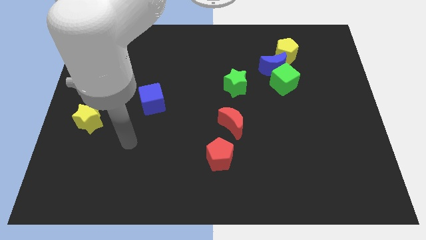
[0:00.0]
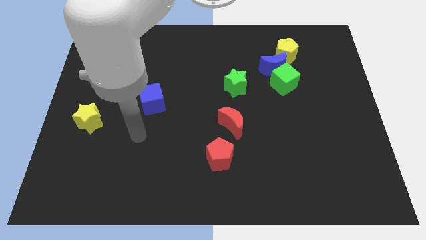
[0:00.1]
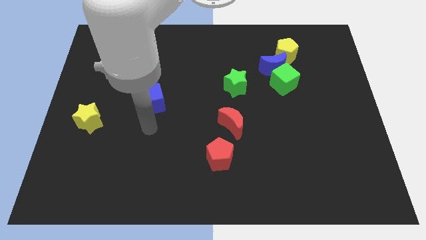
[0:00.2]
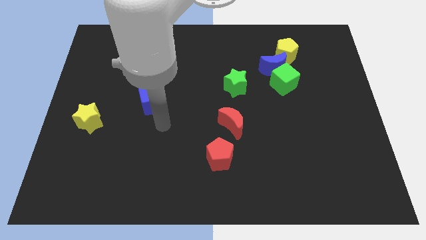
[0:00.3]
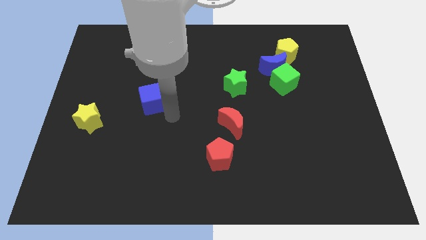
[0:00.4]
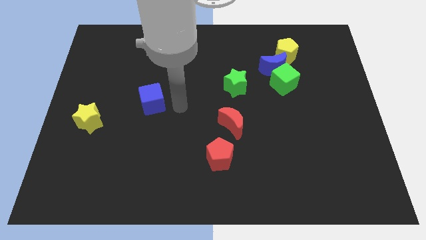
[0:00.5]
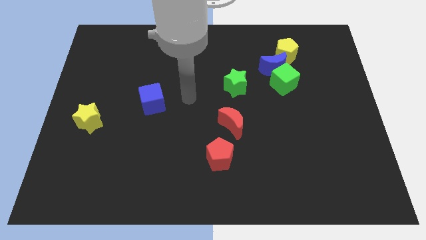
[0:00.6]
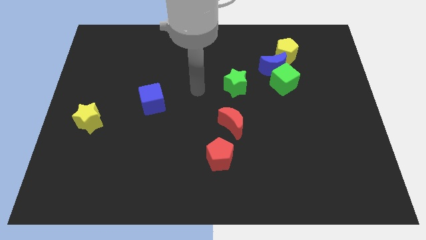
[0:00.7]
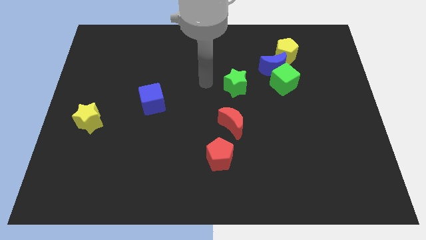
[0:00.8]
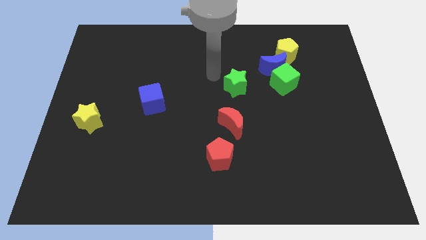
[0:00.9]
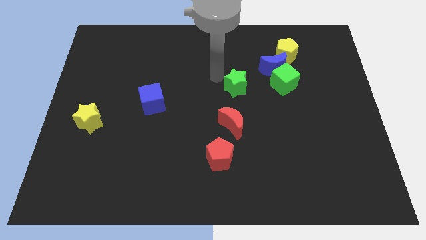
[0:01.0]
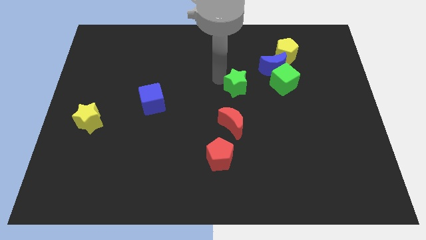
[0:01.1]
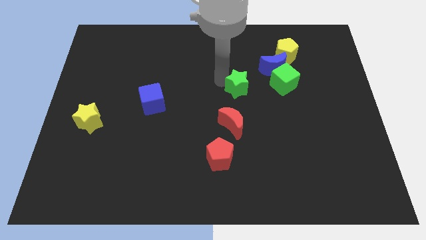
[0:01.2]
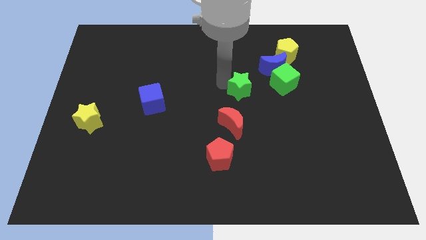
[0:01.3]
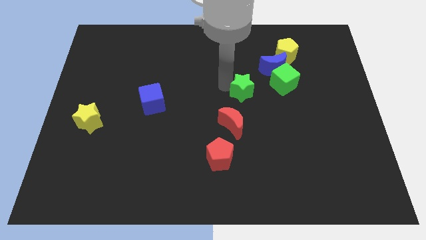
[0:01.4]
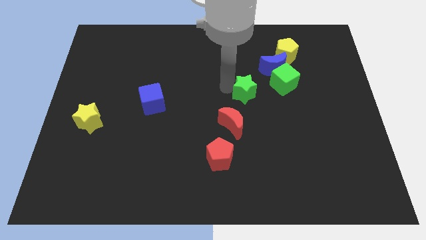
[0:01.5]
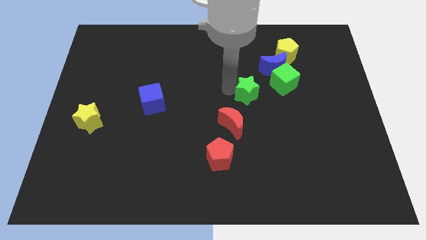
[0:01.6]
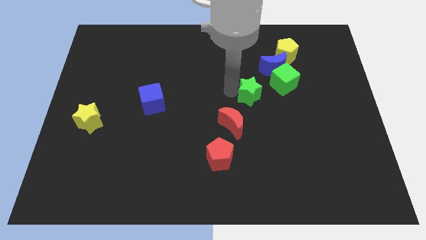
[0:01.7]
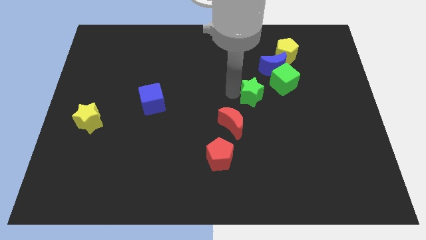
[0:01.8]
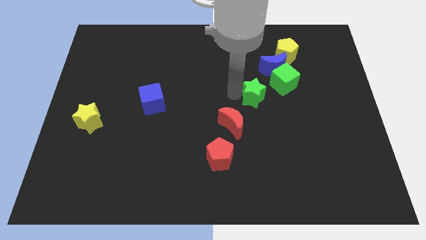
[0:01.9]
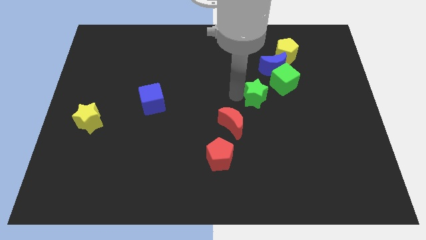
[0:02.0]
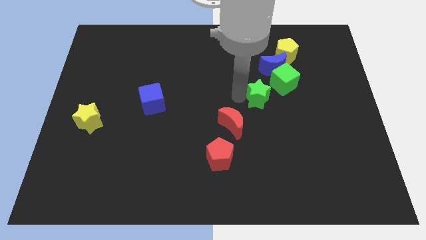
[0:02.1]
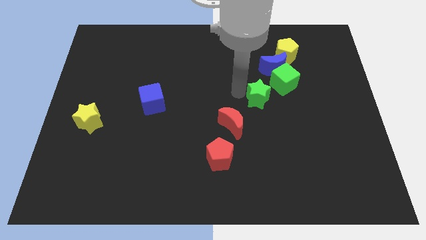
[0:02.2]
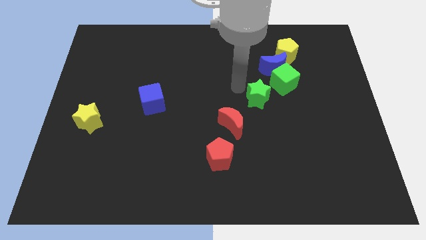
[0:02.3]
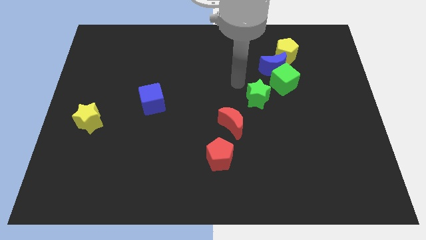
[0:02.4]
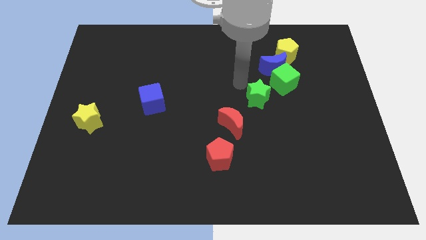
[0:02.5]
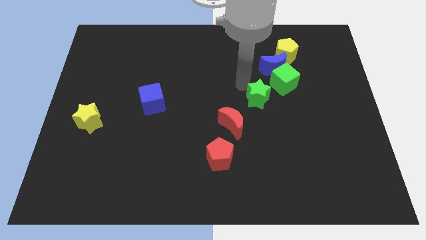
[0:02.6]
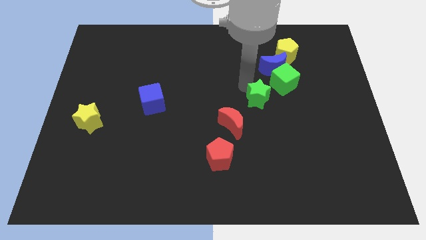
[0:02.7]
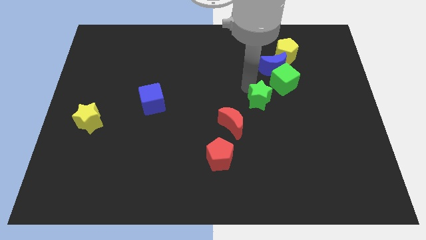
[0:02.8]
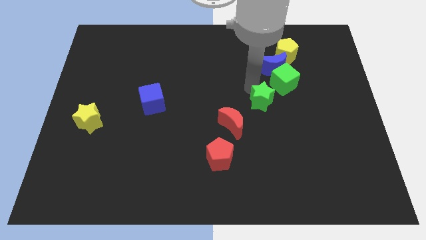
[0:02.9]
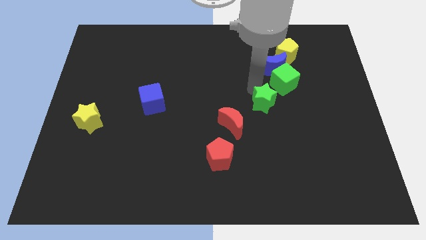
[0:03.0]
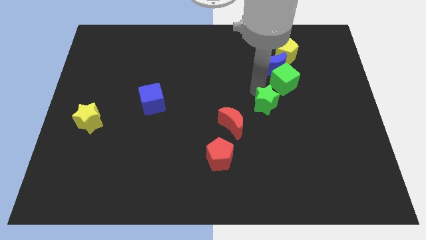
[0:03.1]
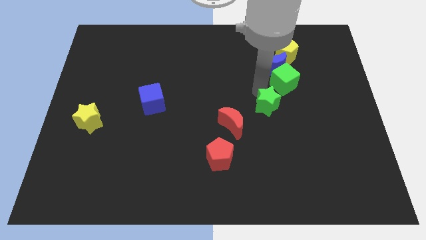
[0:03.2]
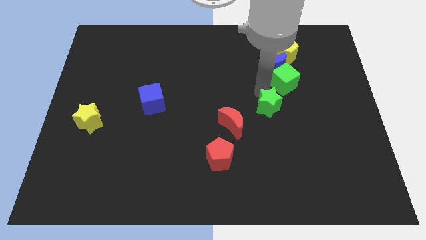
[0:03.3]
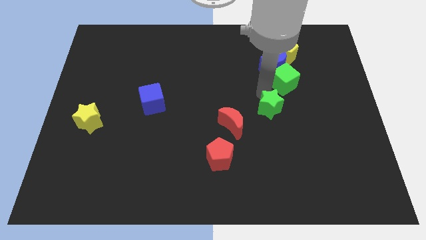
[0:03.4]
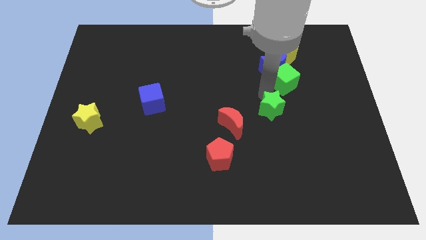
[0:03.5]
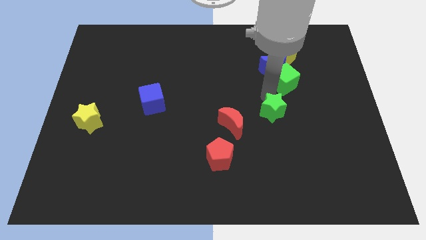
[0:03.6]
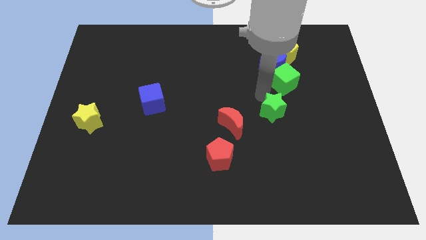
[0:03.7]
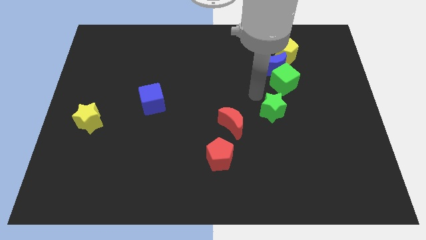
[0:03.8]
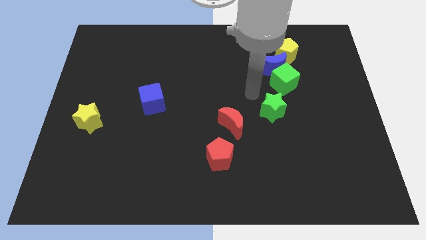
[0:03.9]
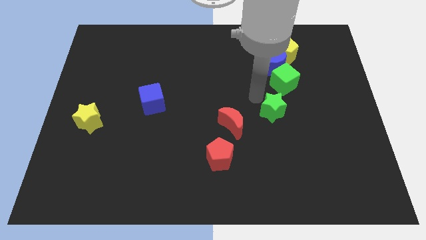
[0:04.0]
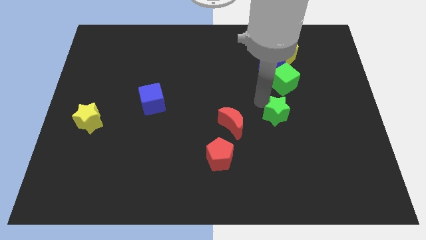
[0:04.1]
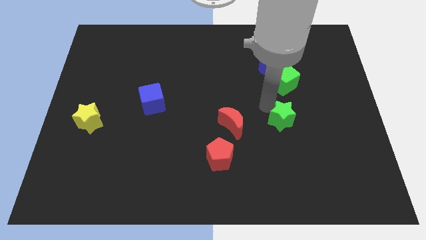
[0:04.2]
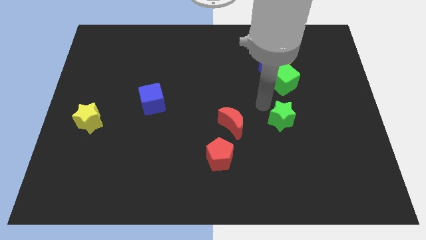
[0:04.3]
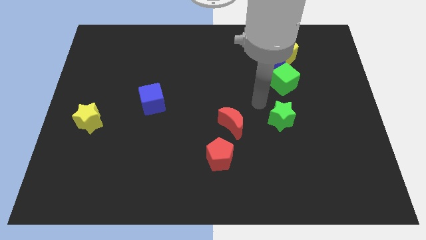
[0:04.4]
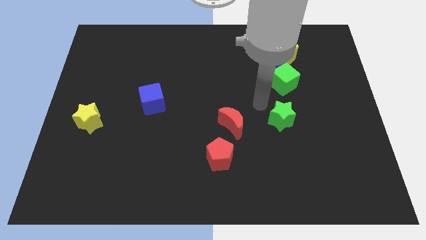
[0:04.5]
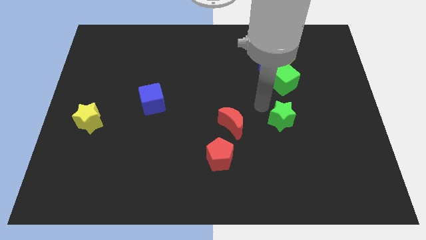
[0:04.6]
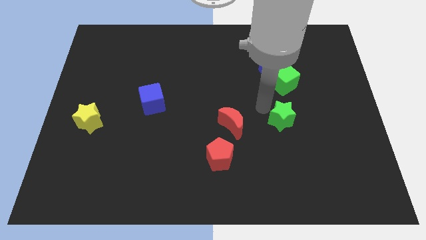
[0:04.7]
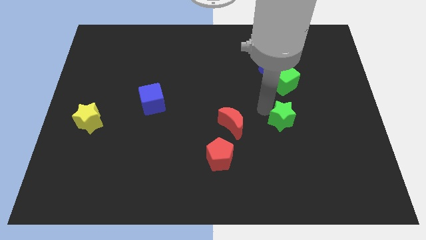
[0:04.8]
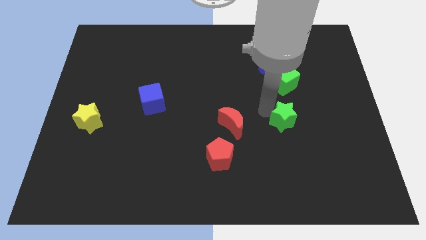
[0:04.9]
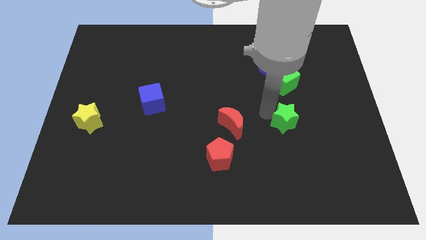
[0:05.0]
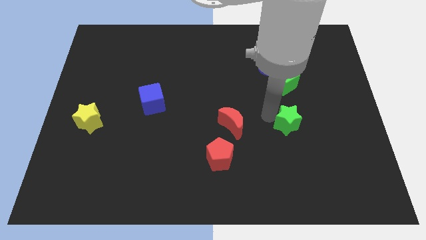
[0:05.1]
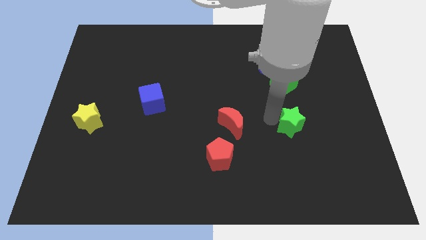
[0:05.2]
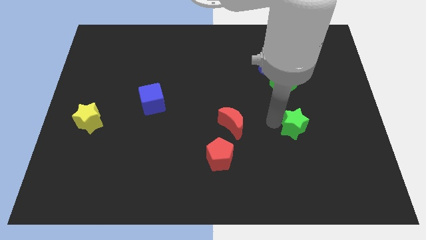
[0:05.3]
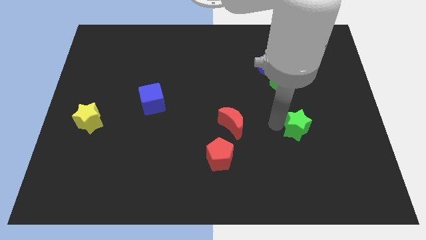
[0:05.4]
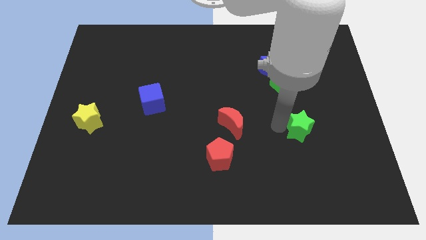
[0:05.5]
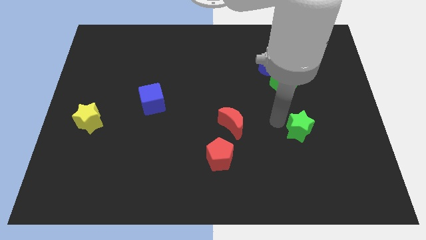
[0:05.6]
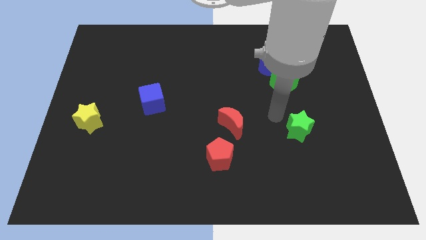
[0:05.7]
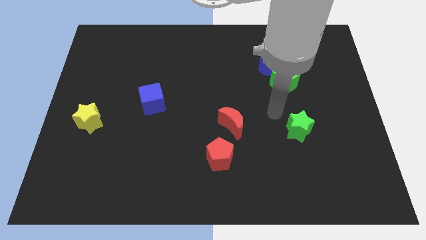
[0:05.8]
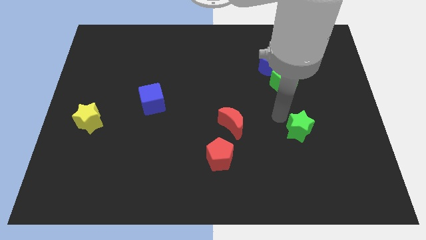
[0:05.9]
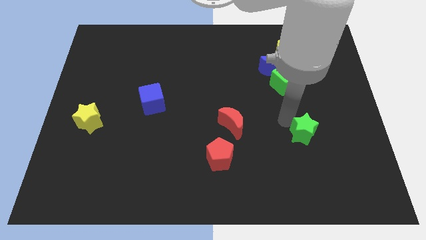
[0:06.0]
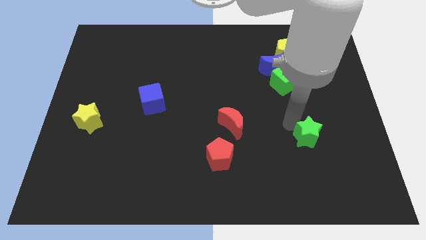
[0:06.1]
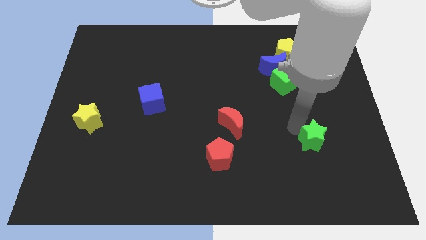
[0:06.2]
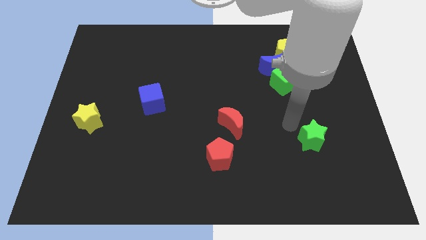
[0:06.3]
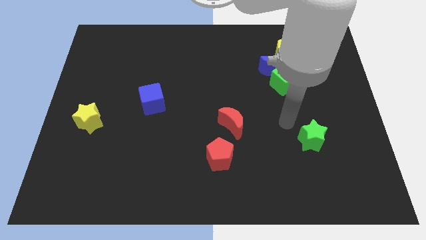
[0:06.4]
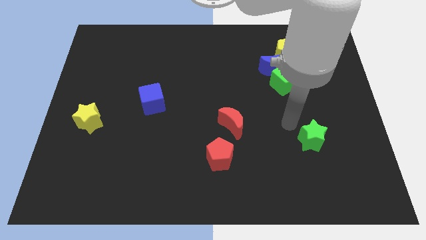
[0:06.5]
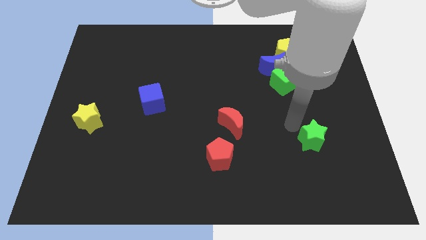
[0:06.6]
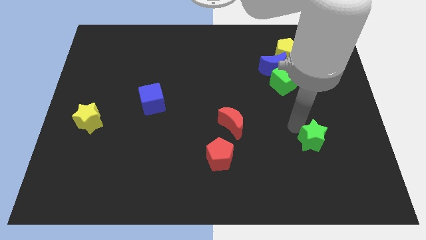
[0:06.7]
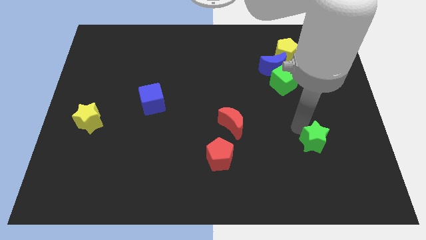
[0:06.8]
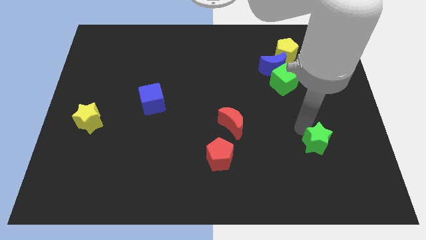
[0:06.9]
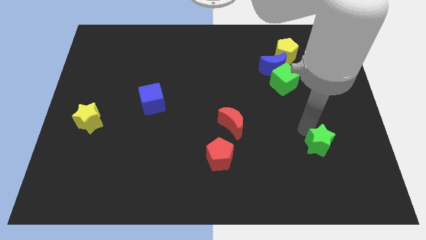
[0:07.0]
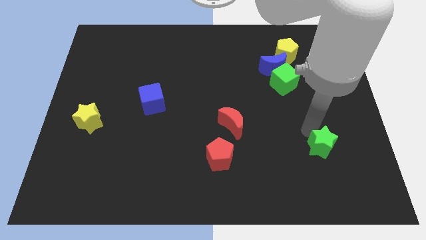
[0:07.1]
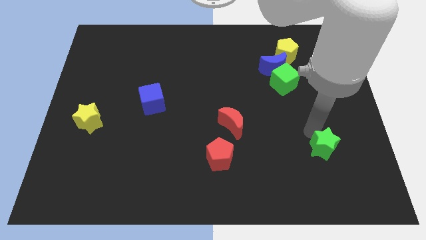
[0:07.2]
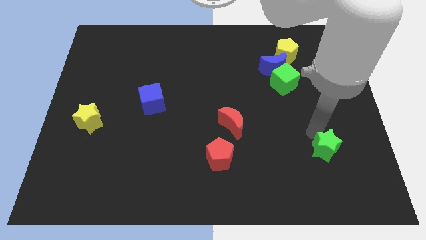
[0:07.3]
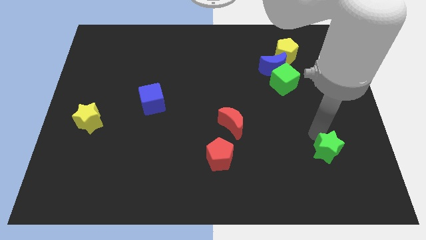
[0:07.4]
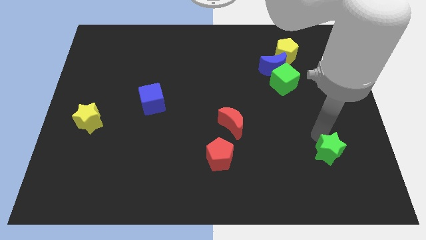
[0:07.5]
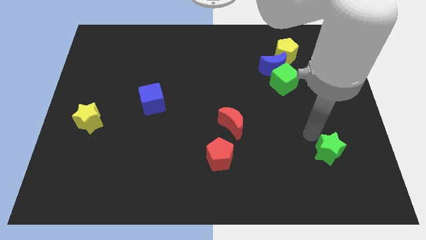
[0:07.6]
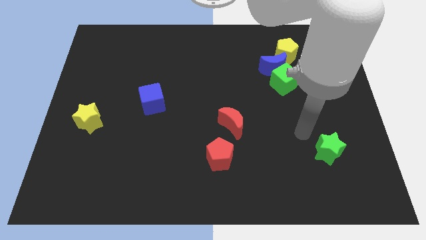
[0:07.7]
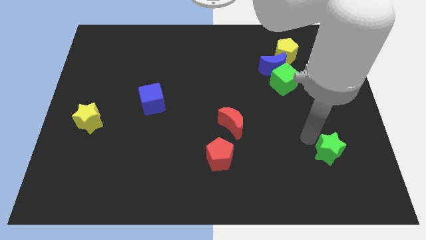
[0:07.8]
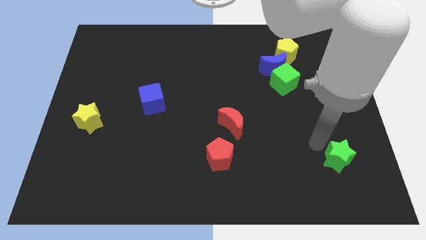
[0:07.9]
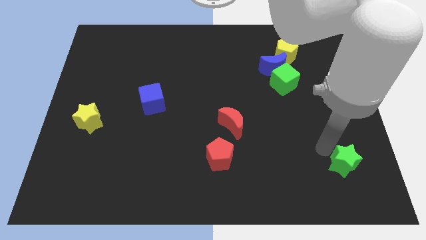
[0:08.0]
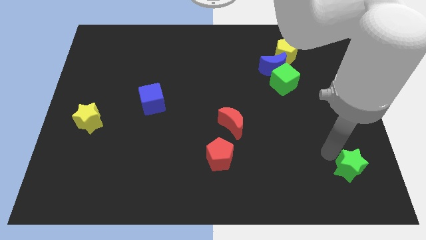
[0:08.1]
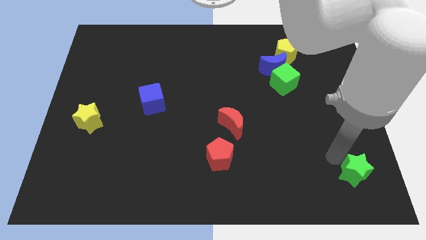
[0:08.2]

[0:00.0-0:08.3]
slide the green star to the bottom right

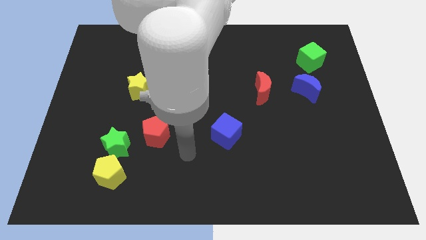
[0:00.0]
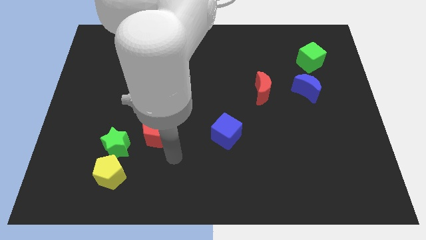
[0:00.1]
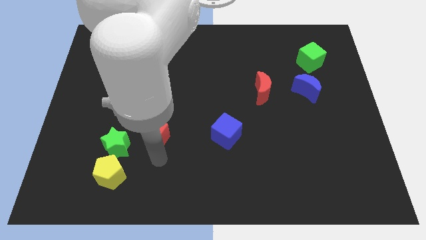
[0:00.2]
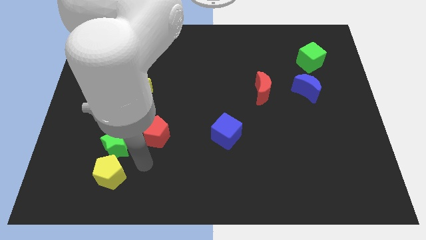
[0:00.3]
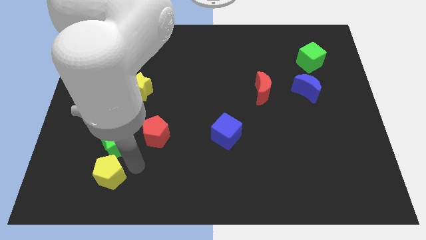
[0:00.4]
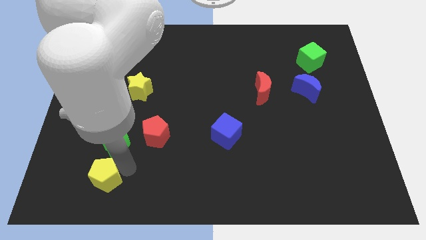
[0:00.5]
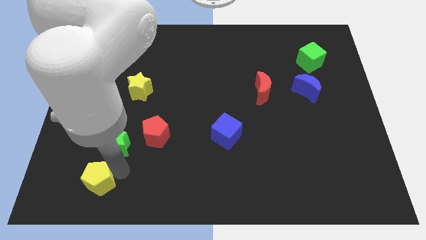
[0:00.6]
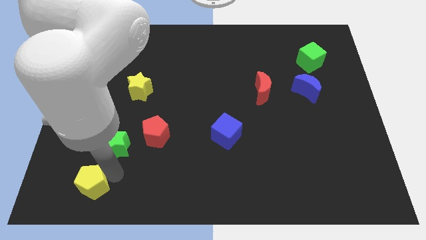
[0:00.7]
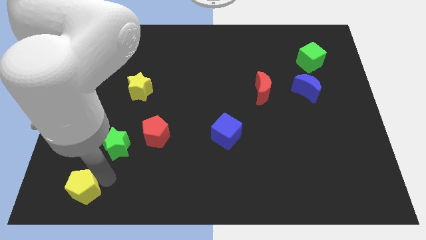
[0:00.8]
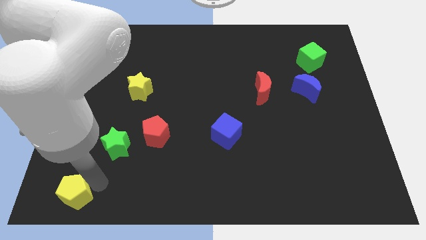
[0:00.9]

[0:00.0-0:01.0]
move the yellow pentagon to the bottom left corner
